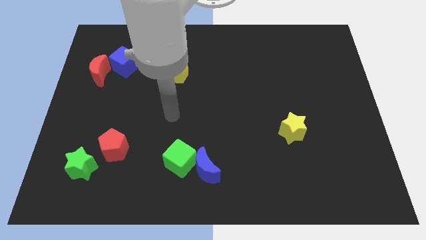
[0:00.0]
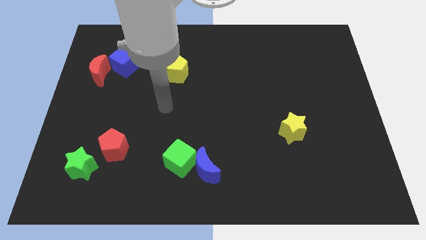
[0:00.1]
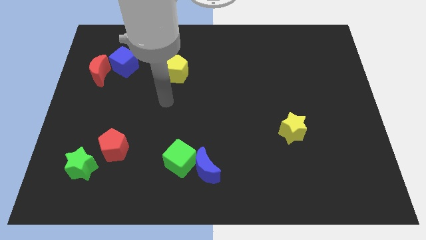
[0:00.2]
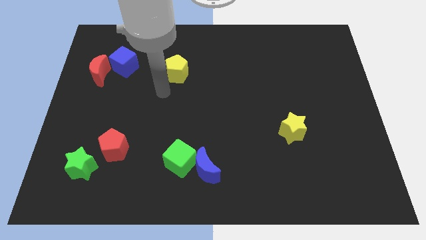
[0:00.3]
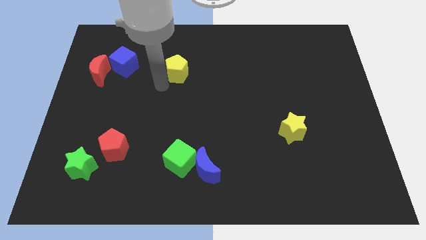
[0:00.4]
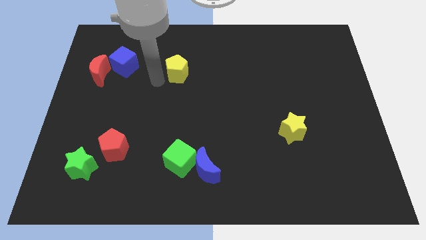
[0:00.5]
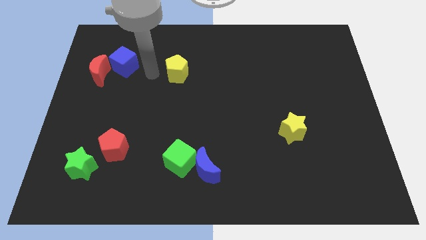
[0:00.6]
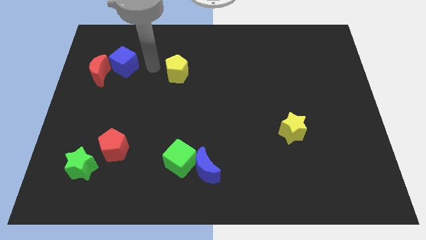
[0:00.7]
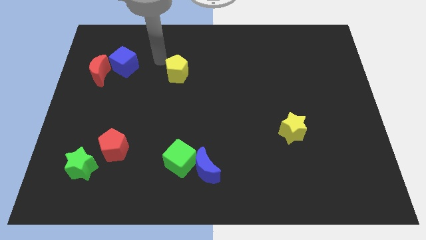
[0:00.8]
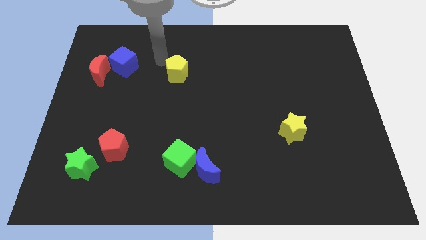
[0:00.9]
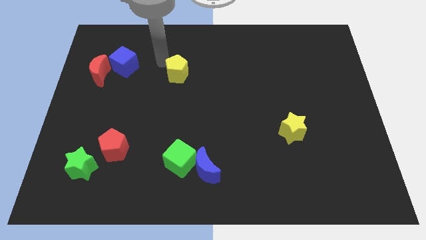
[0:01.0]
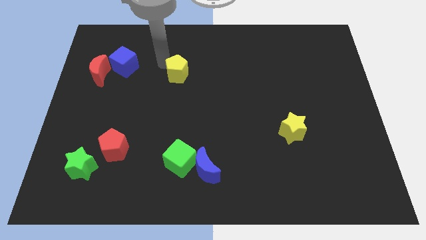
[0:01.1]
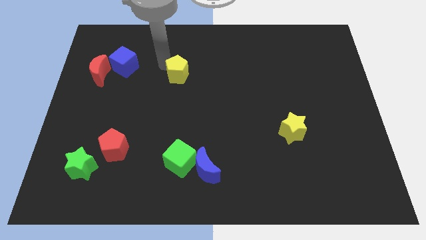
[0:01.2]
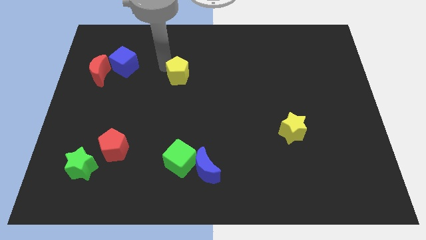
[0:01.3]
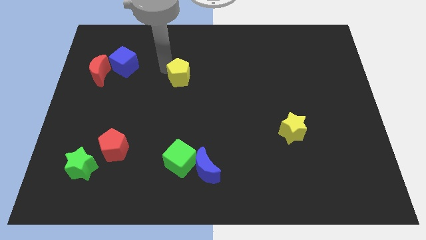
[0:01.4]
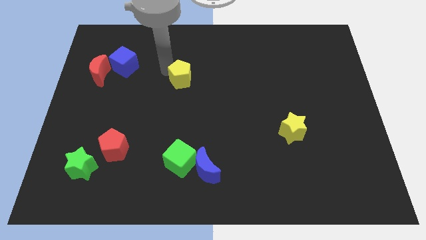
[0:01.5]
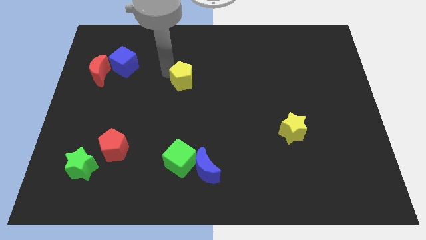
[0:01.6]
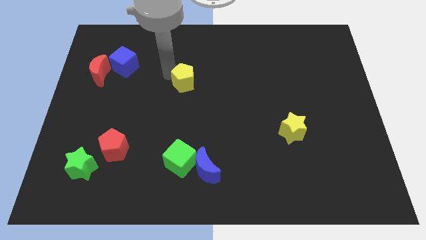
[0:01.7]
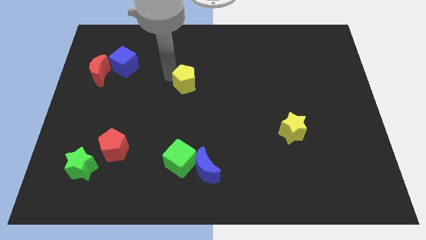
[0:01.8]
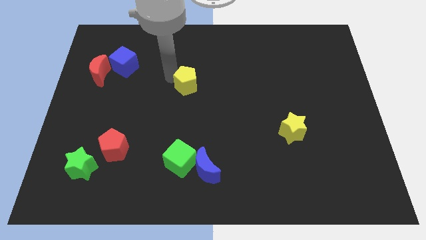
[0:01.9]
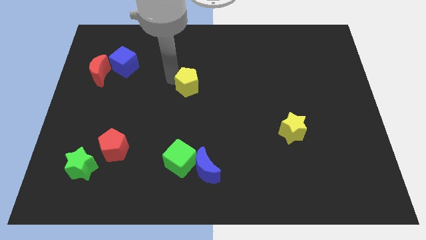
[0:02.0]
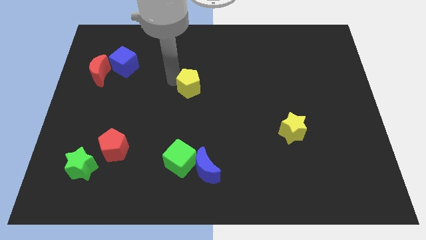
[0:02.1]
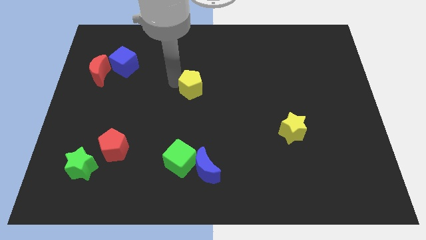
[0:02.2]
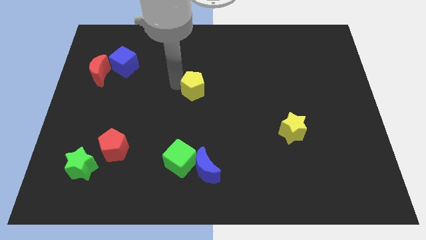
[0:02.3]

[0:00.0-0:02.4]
slightly move the yellow pentagon downwards and right

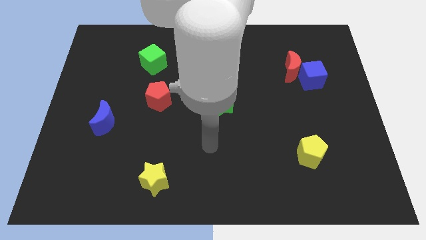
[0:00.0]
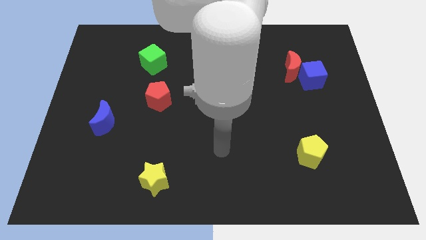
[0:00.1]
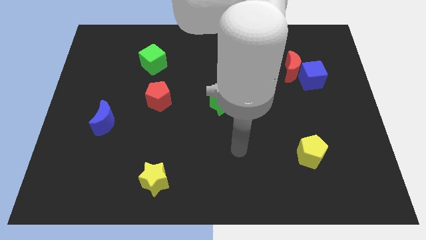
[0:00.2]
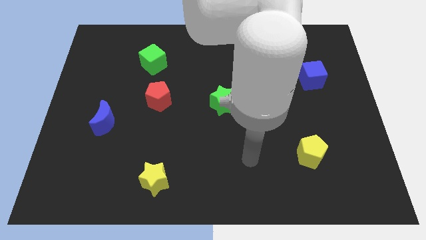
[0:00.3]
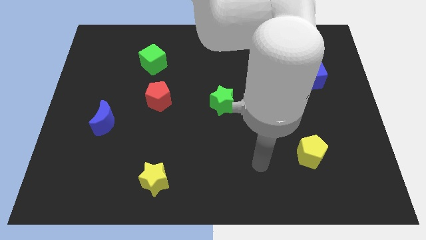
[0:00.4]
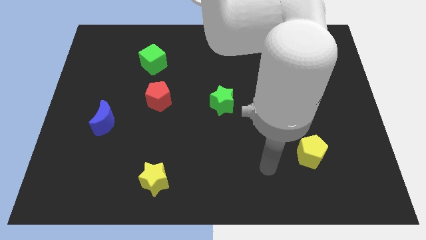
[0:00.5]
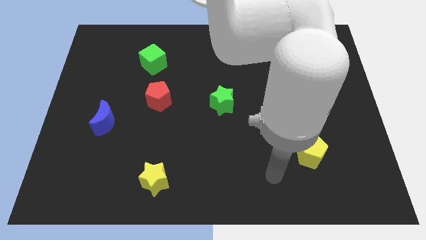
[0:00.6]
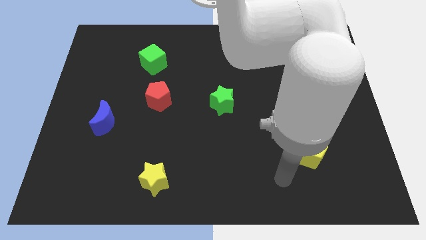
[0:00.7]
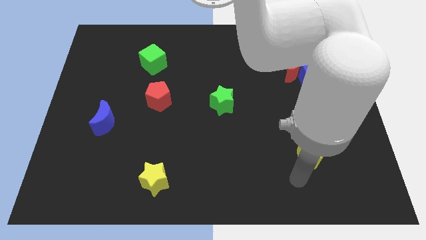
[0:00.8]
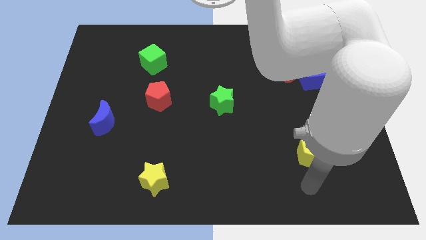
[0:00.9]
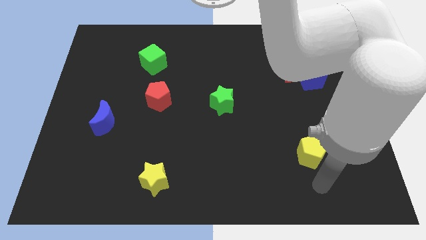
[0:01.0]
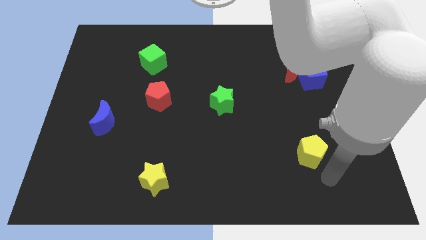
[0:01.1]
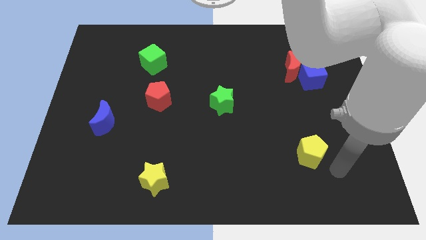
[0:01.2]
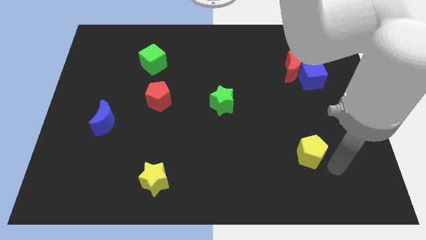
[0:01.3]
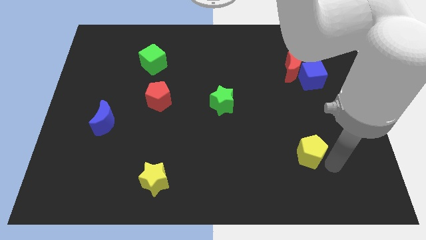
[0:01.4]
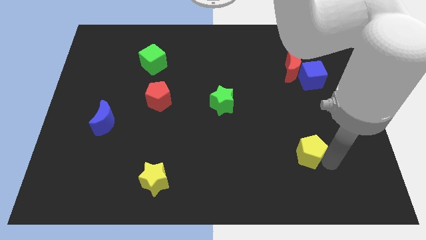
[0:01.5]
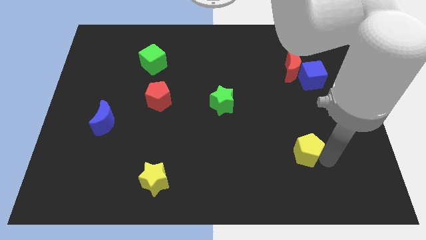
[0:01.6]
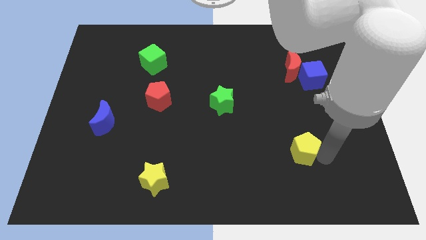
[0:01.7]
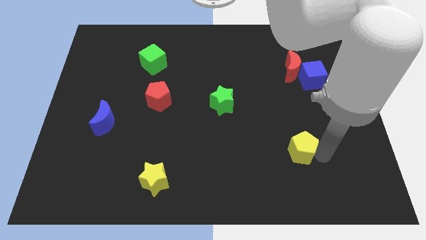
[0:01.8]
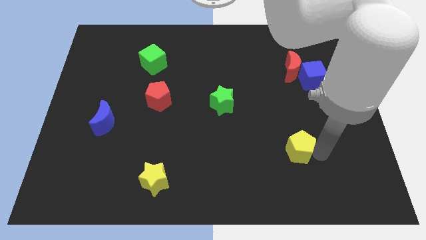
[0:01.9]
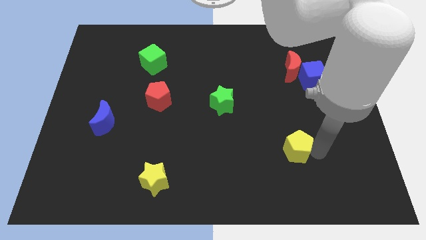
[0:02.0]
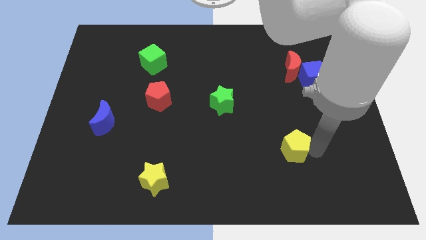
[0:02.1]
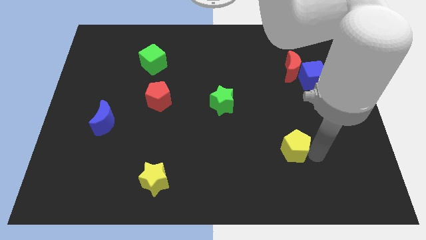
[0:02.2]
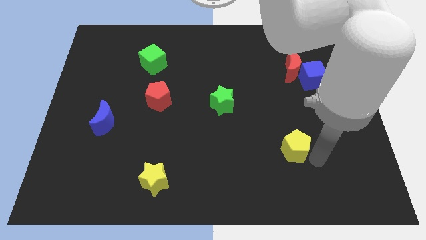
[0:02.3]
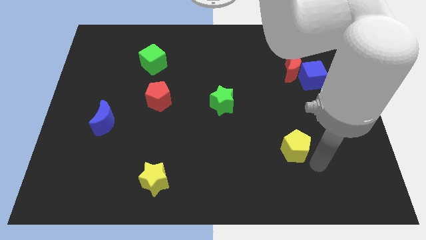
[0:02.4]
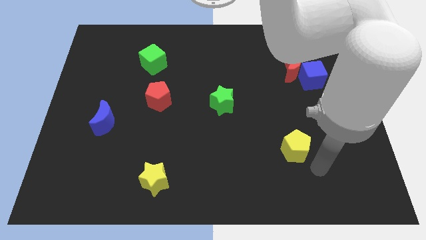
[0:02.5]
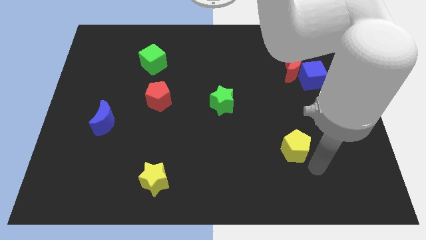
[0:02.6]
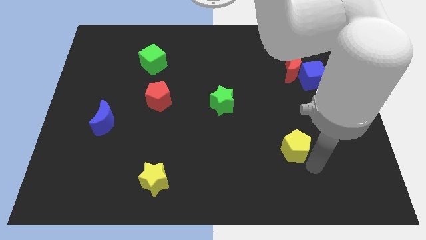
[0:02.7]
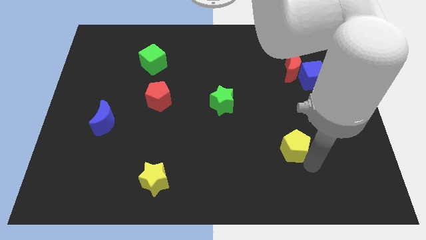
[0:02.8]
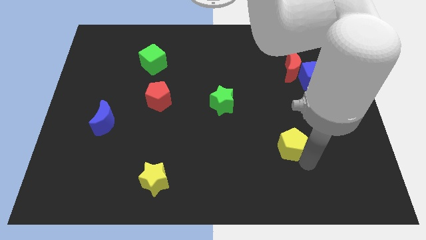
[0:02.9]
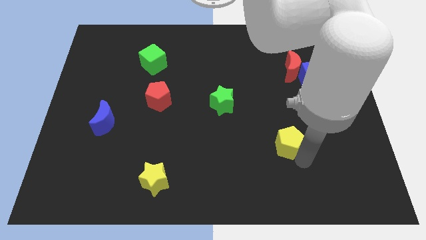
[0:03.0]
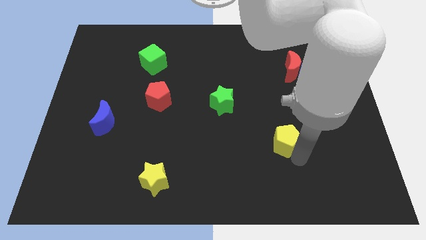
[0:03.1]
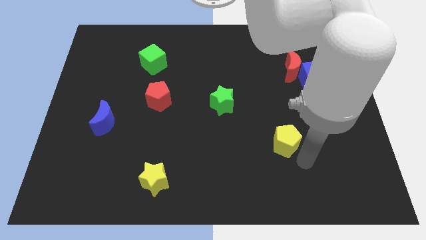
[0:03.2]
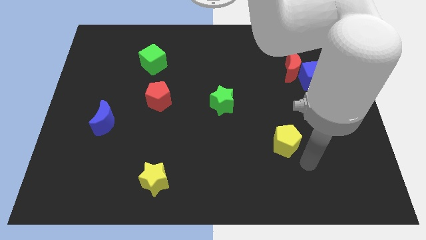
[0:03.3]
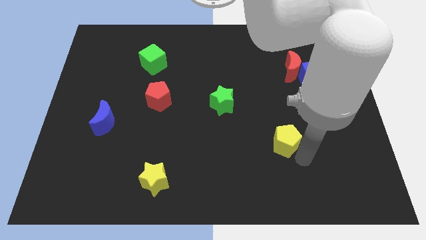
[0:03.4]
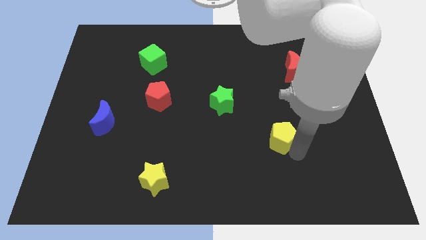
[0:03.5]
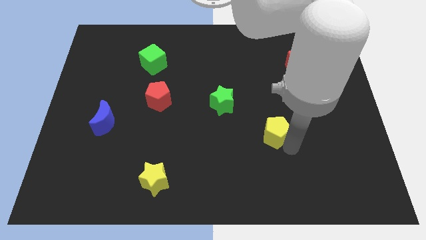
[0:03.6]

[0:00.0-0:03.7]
push the yellow pentagon up and to the left diagonally slightly

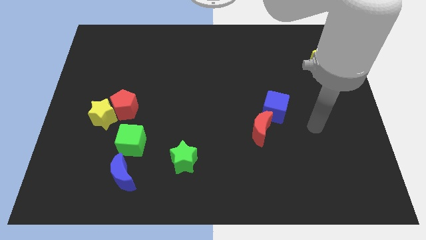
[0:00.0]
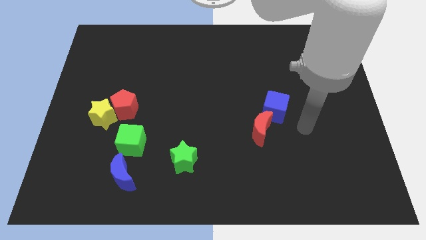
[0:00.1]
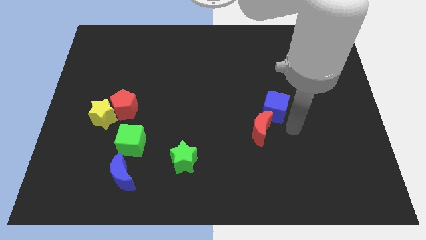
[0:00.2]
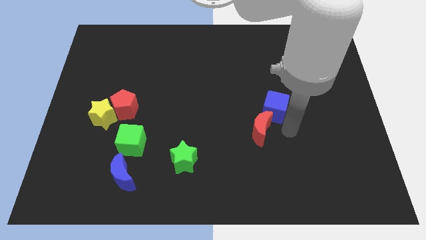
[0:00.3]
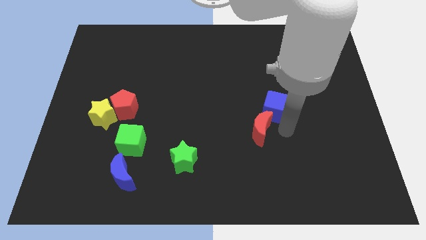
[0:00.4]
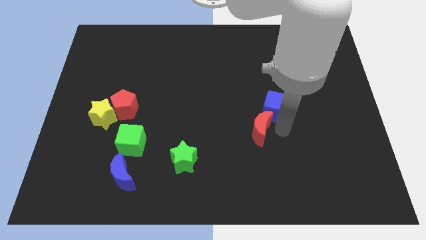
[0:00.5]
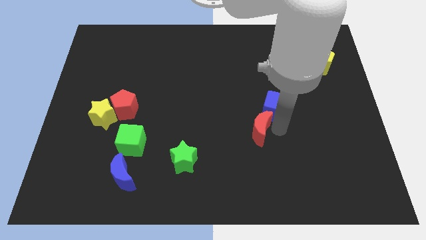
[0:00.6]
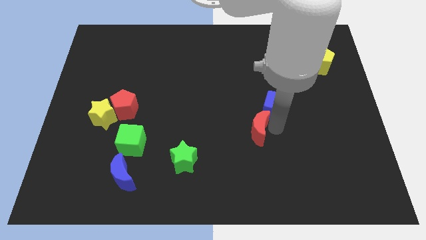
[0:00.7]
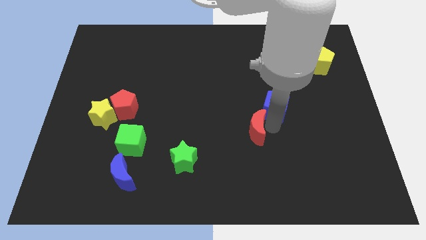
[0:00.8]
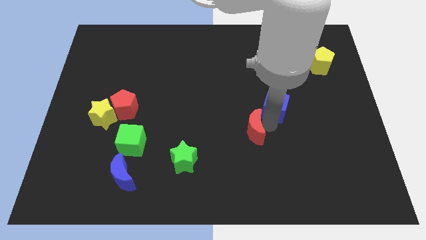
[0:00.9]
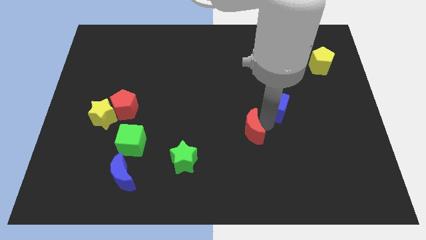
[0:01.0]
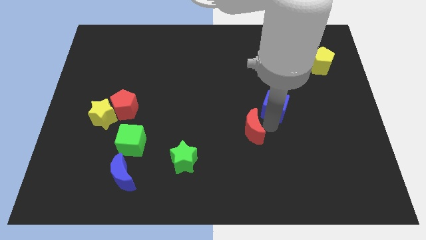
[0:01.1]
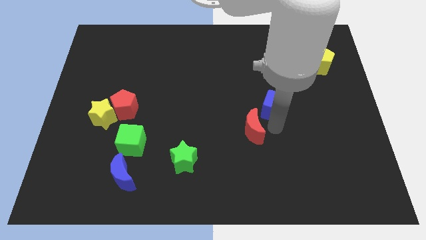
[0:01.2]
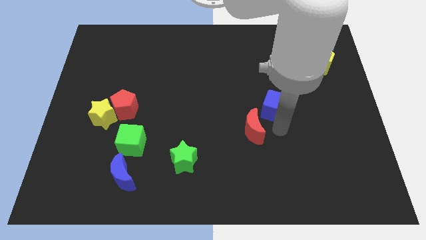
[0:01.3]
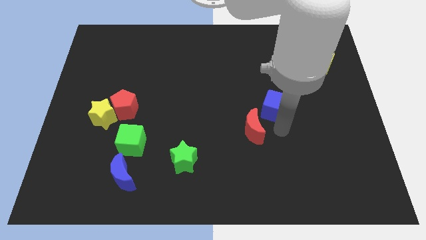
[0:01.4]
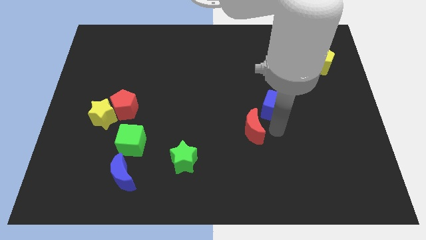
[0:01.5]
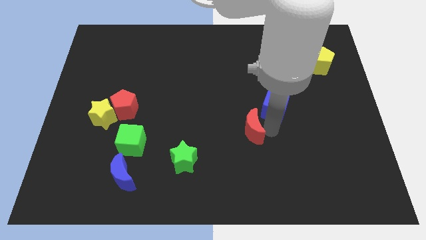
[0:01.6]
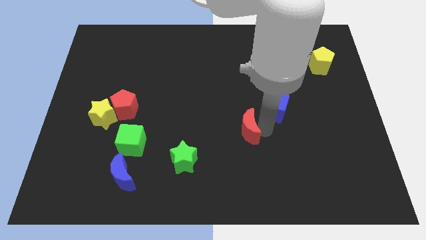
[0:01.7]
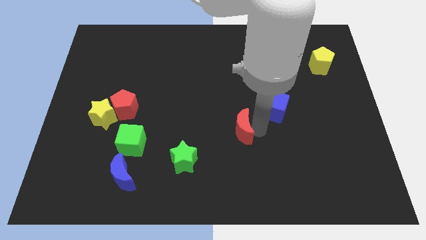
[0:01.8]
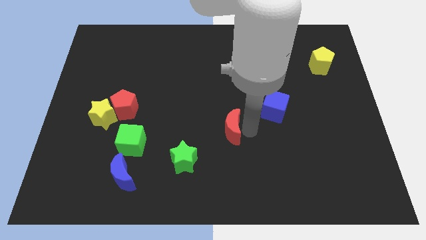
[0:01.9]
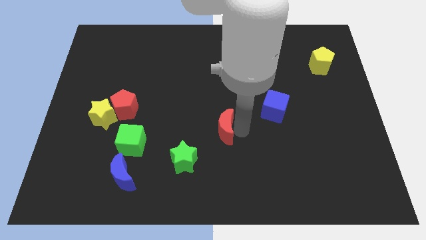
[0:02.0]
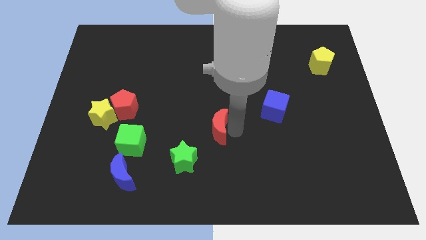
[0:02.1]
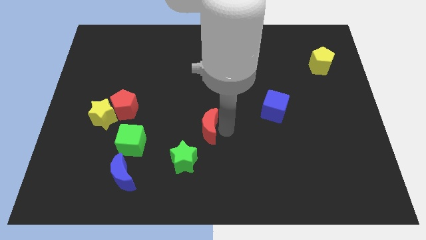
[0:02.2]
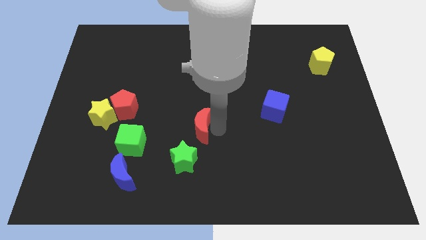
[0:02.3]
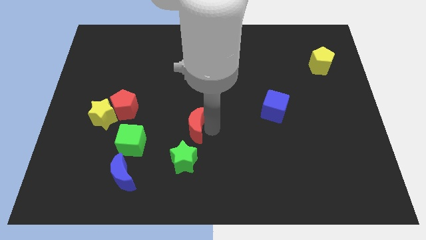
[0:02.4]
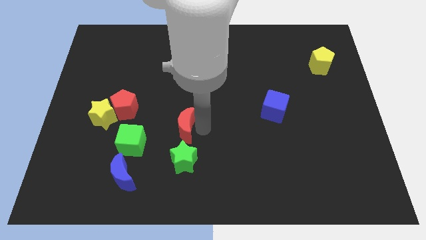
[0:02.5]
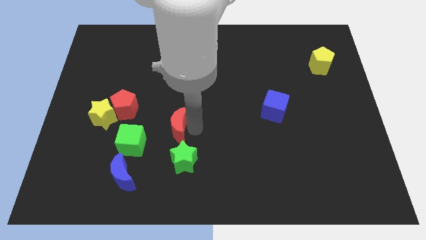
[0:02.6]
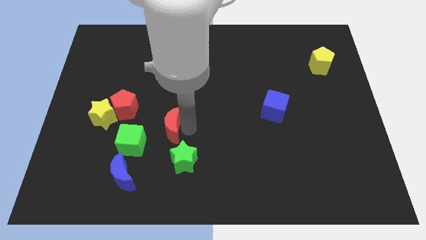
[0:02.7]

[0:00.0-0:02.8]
slide the red moon left
